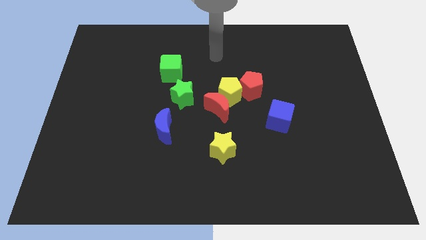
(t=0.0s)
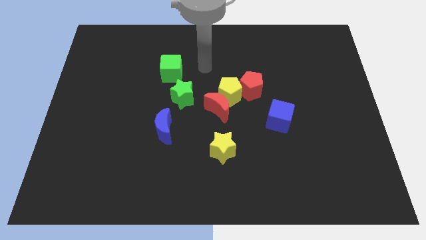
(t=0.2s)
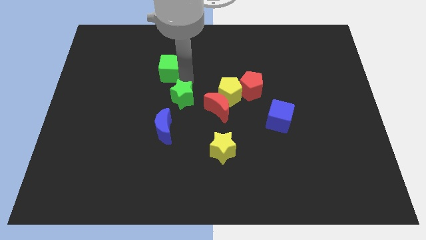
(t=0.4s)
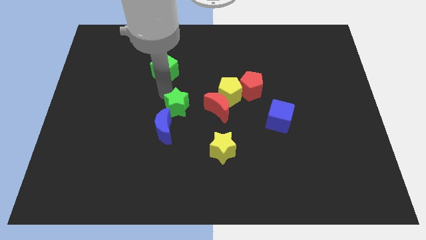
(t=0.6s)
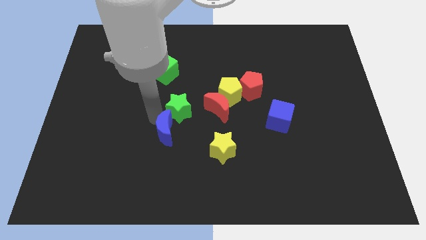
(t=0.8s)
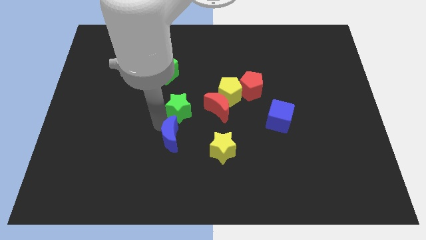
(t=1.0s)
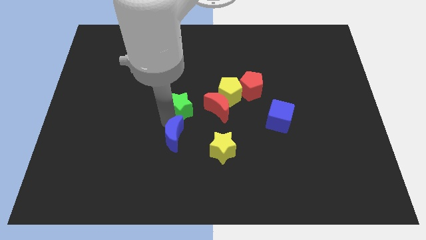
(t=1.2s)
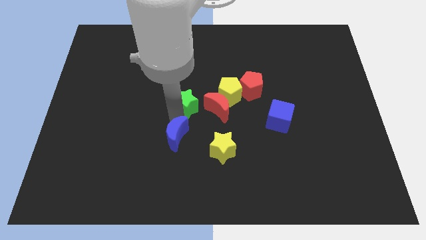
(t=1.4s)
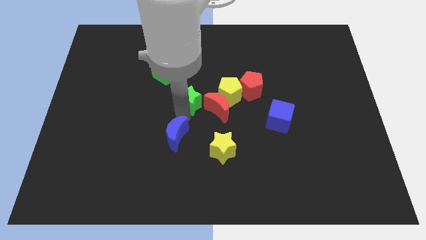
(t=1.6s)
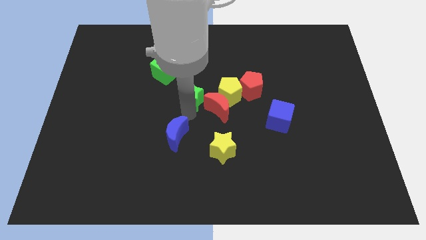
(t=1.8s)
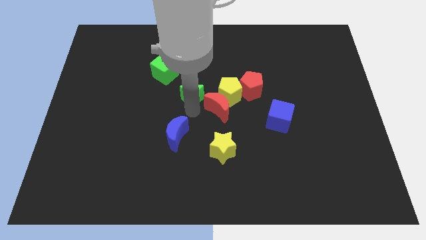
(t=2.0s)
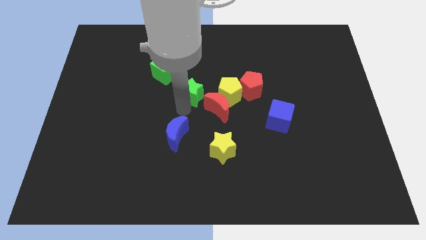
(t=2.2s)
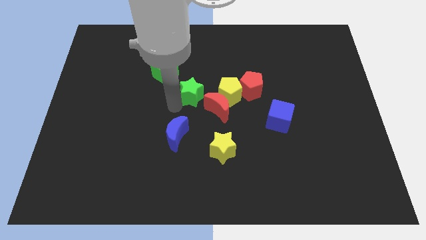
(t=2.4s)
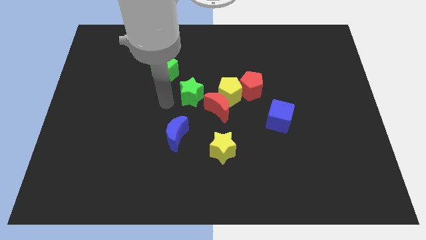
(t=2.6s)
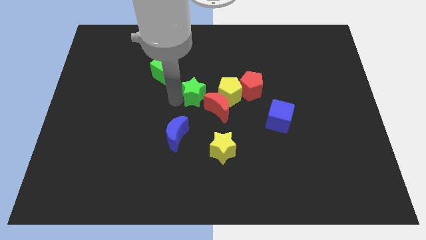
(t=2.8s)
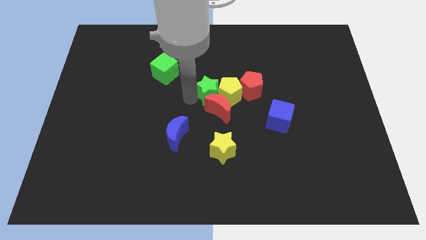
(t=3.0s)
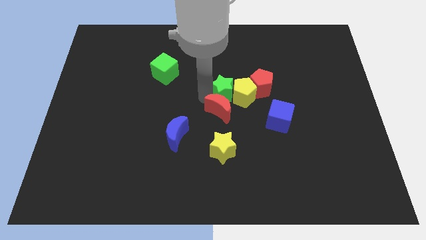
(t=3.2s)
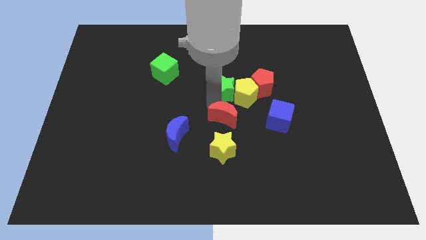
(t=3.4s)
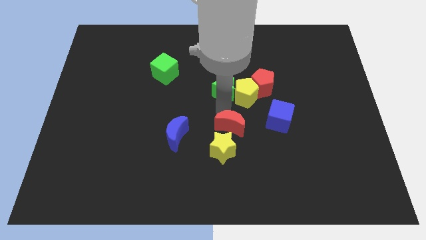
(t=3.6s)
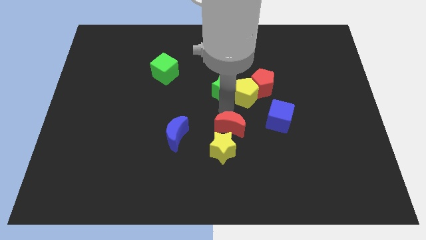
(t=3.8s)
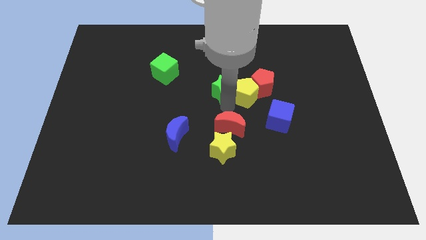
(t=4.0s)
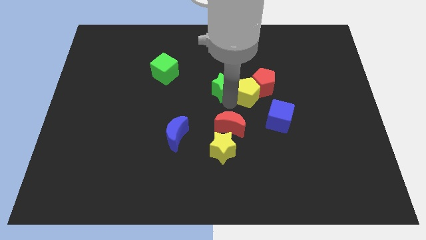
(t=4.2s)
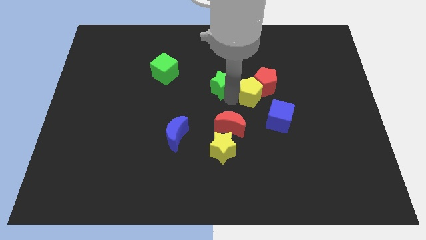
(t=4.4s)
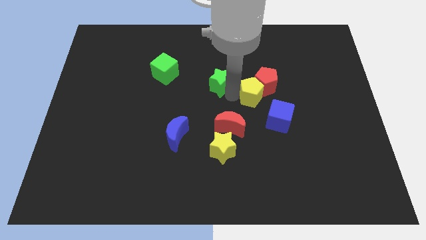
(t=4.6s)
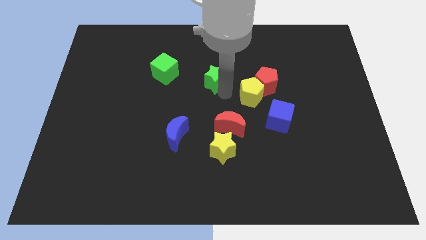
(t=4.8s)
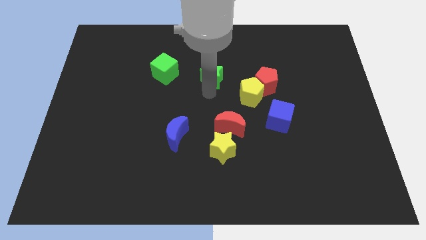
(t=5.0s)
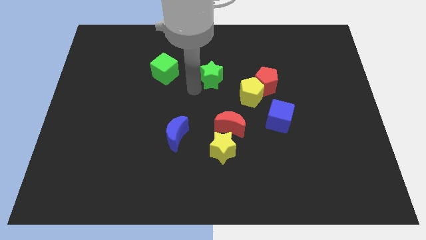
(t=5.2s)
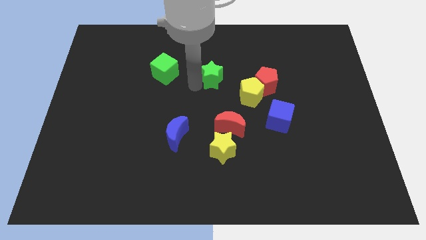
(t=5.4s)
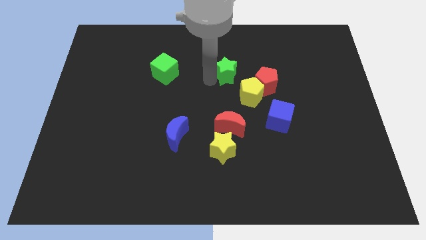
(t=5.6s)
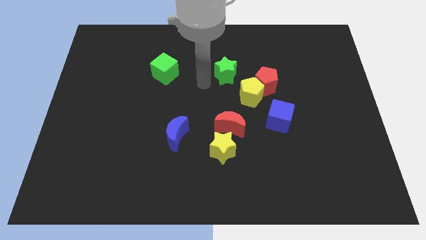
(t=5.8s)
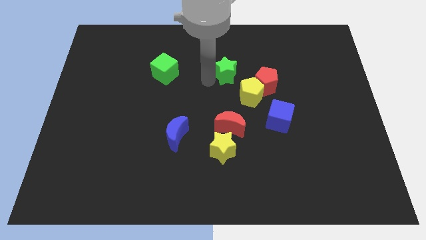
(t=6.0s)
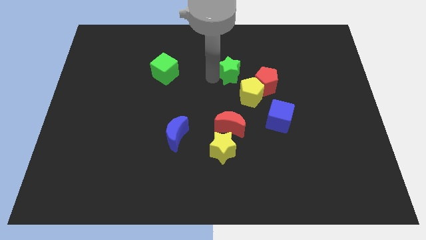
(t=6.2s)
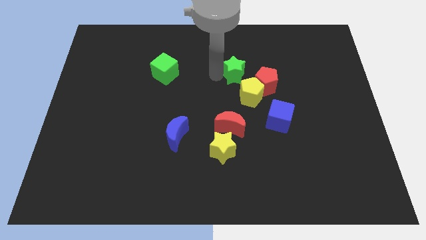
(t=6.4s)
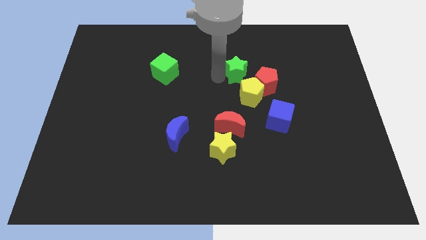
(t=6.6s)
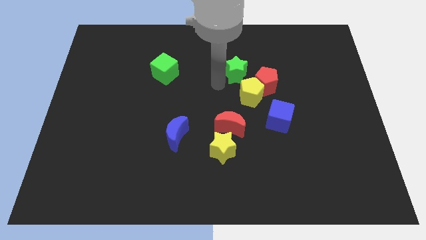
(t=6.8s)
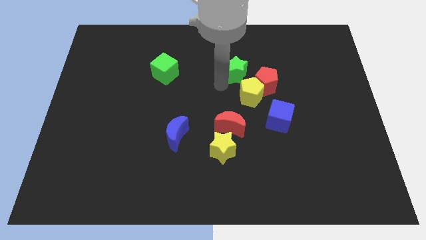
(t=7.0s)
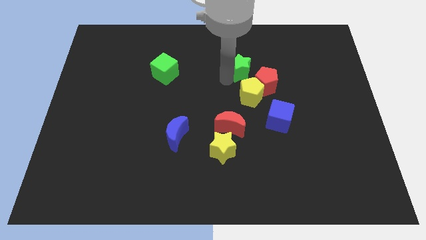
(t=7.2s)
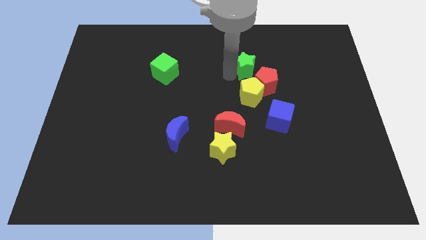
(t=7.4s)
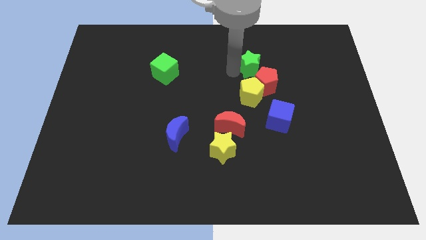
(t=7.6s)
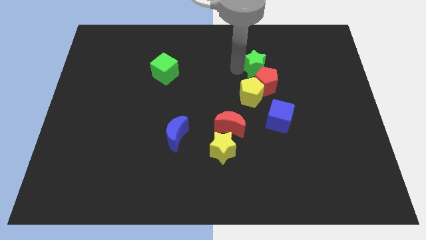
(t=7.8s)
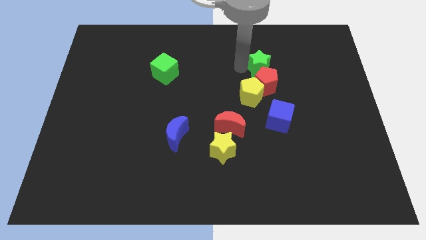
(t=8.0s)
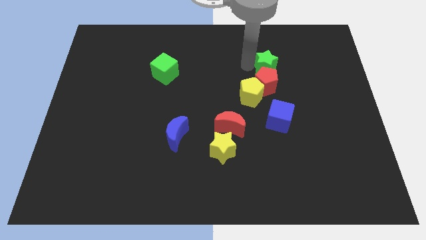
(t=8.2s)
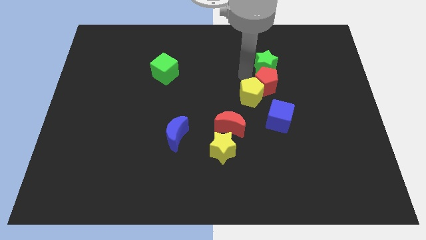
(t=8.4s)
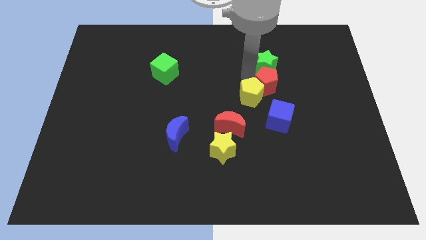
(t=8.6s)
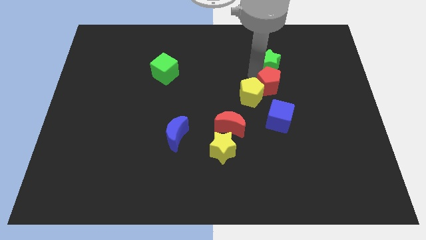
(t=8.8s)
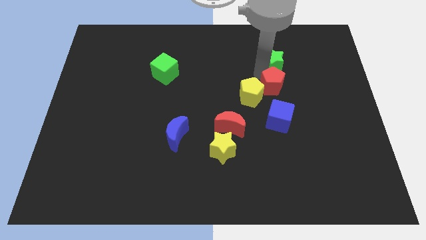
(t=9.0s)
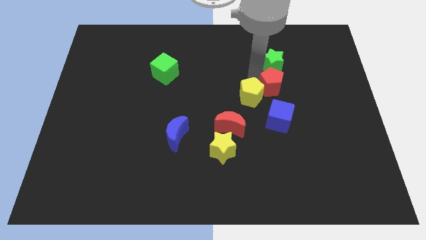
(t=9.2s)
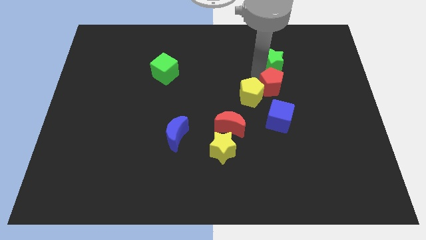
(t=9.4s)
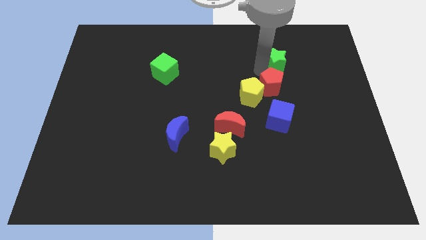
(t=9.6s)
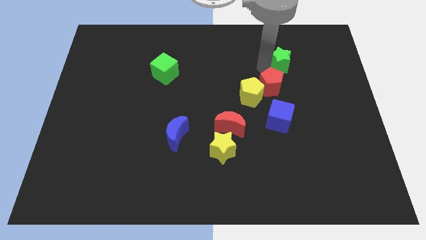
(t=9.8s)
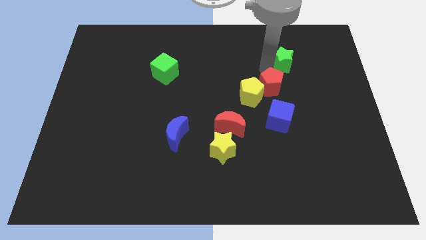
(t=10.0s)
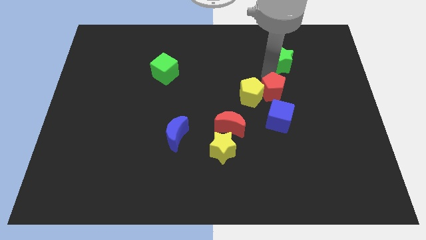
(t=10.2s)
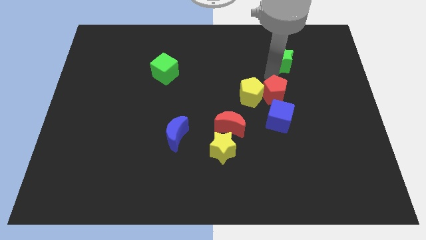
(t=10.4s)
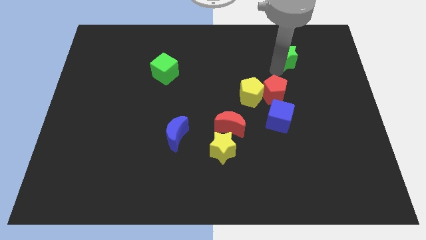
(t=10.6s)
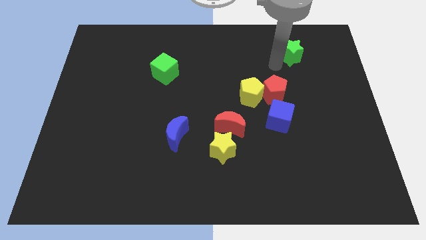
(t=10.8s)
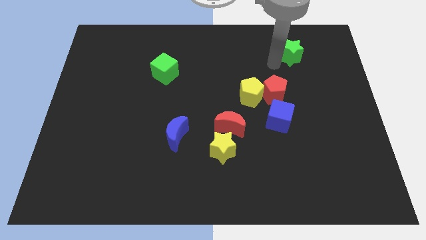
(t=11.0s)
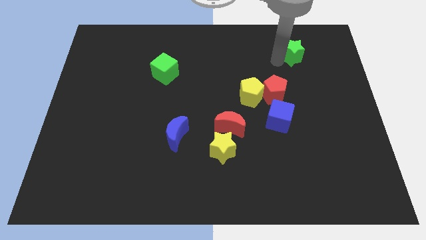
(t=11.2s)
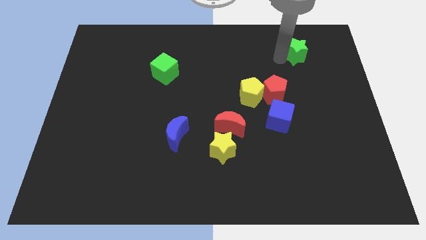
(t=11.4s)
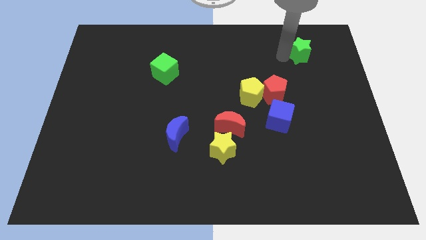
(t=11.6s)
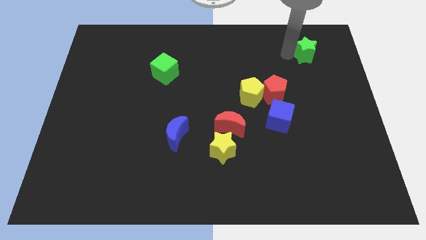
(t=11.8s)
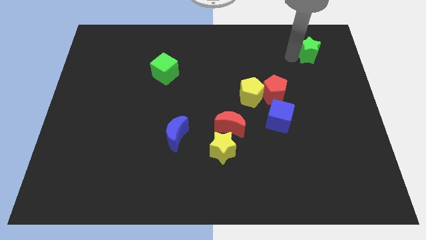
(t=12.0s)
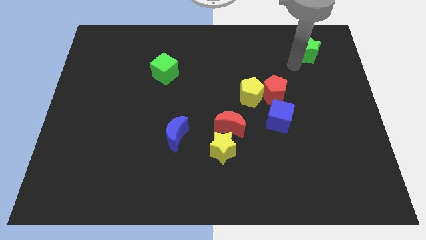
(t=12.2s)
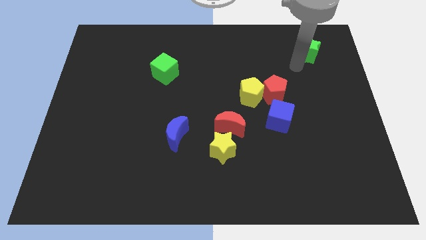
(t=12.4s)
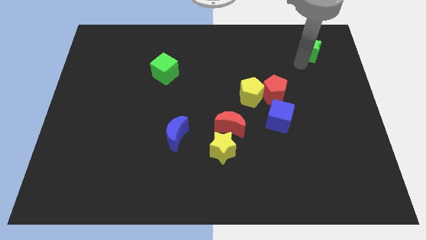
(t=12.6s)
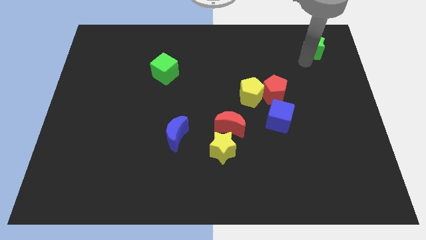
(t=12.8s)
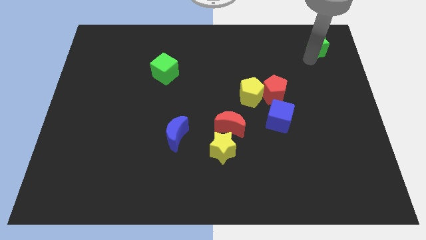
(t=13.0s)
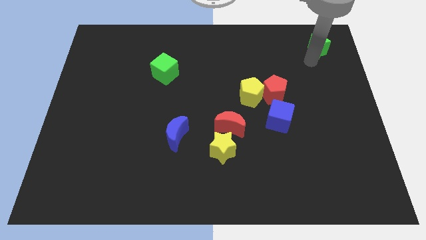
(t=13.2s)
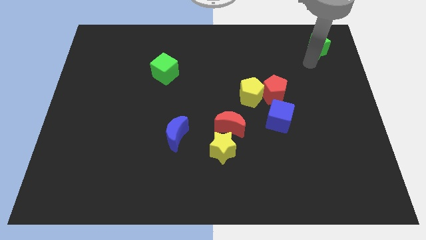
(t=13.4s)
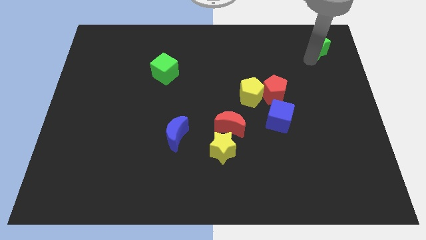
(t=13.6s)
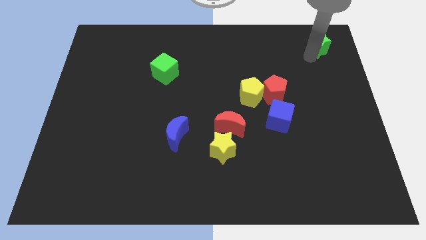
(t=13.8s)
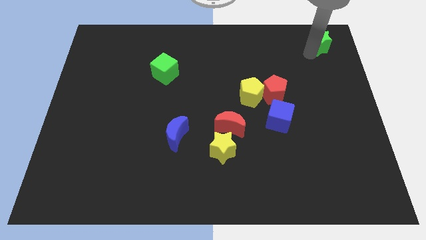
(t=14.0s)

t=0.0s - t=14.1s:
push the green star to the upper right corner
